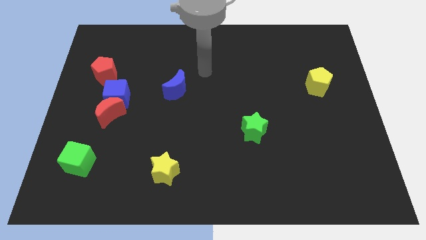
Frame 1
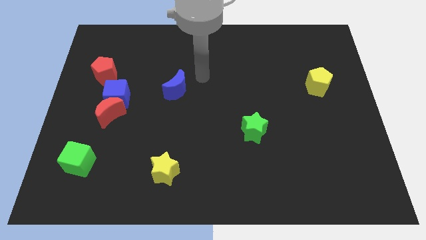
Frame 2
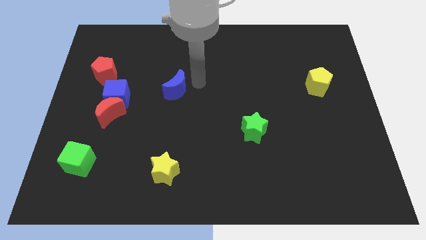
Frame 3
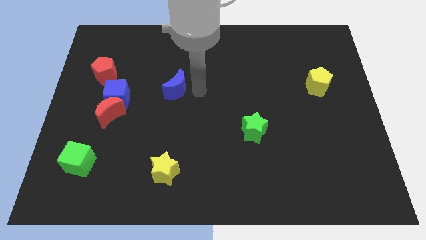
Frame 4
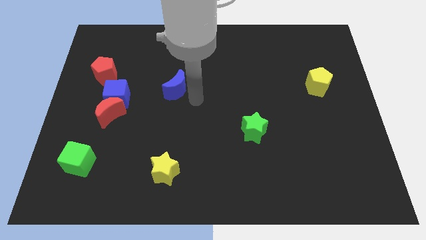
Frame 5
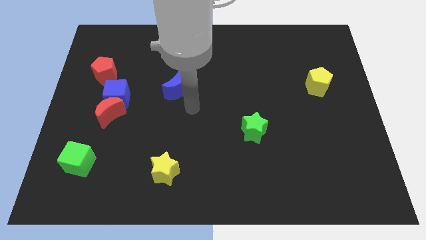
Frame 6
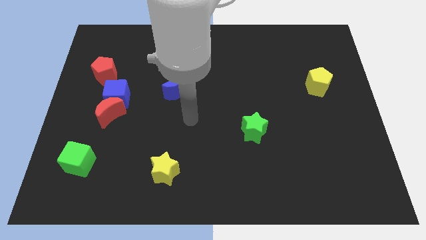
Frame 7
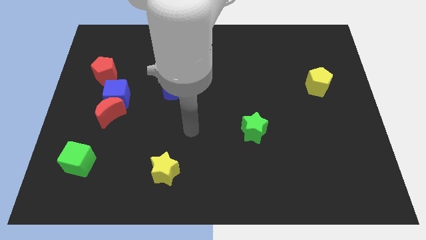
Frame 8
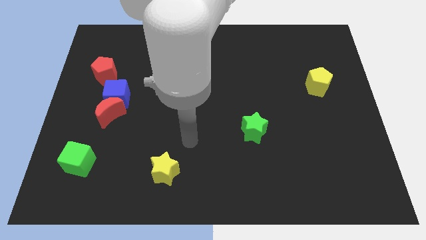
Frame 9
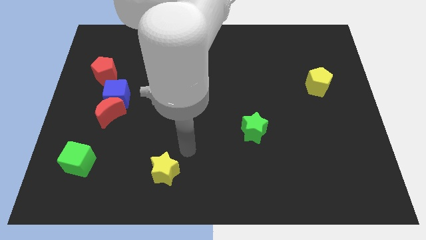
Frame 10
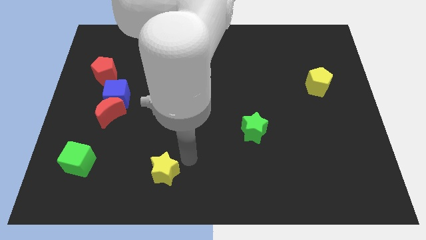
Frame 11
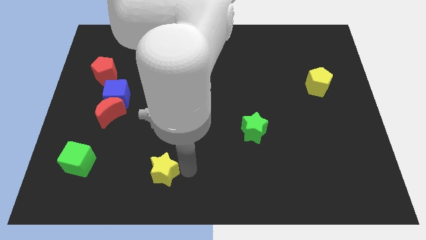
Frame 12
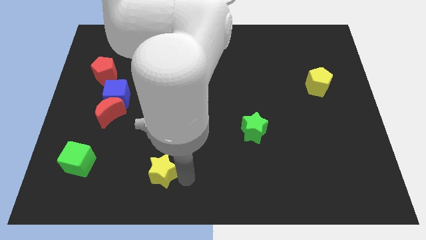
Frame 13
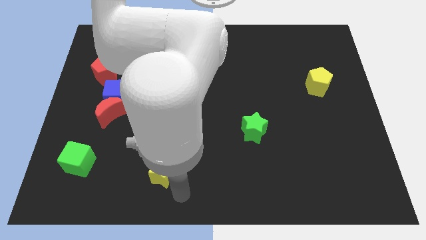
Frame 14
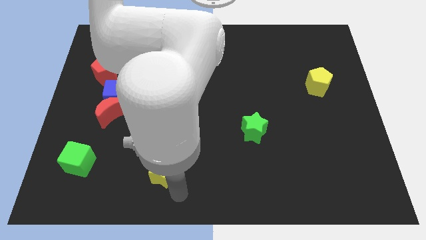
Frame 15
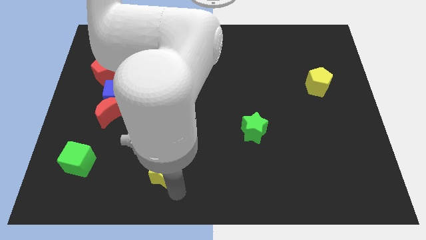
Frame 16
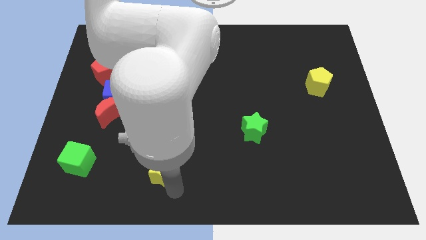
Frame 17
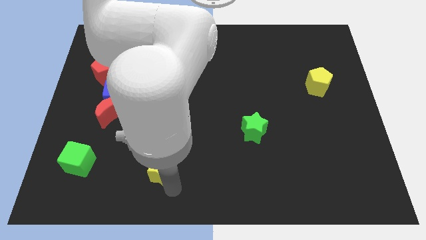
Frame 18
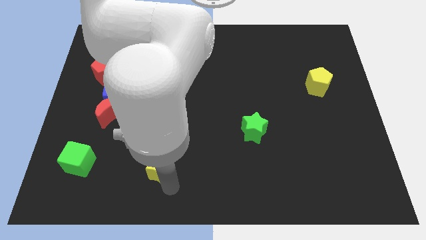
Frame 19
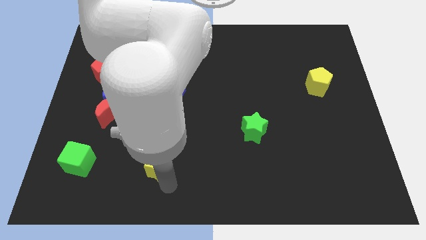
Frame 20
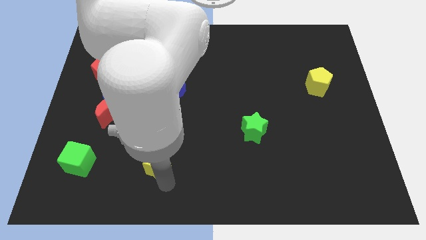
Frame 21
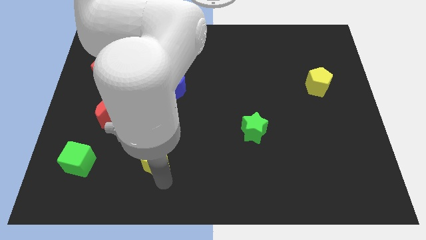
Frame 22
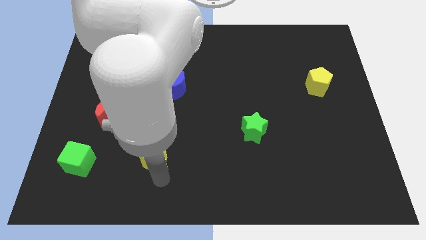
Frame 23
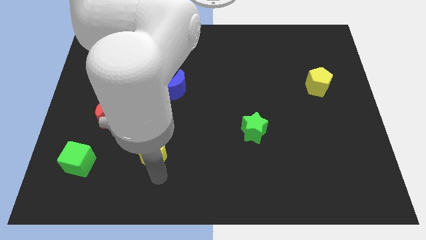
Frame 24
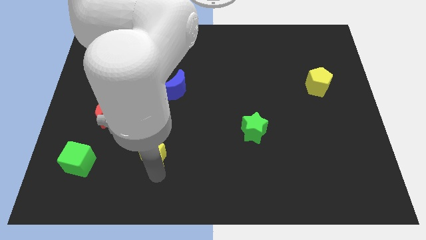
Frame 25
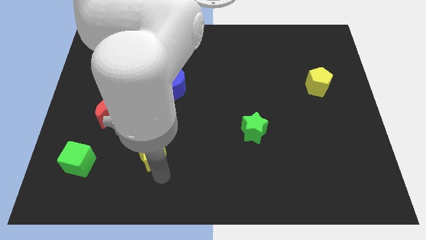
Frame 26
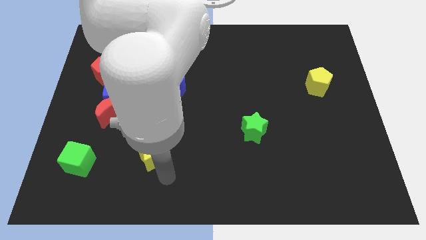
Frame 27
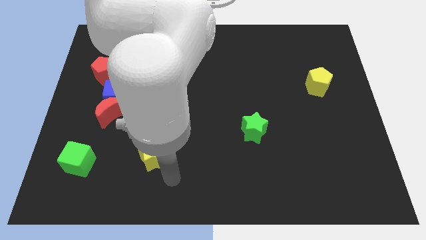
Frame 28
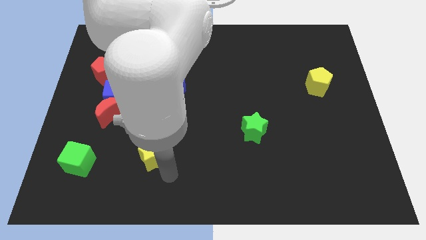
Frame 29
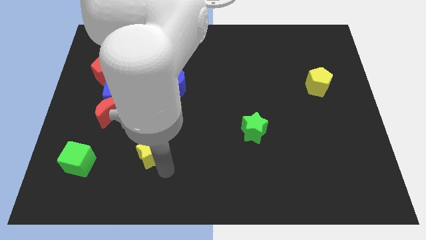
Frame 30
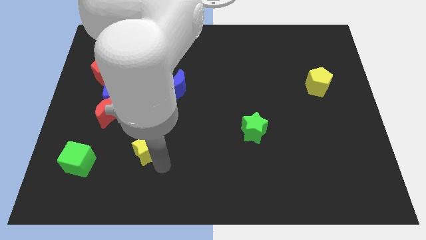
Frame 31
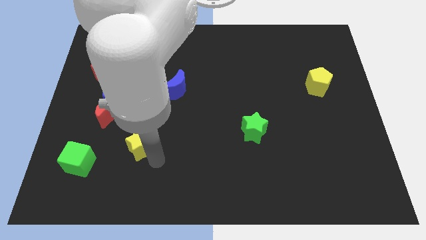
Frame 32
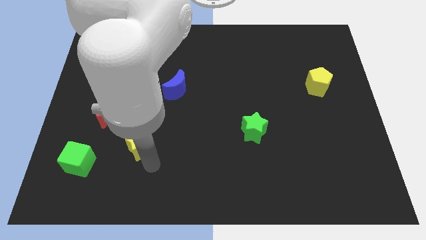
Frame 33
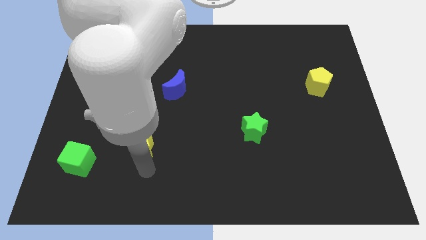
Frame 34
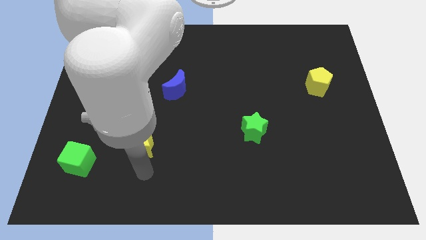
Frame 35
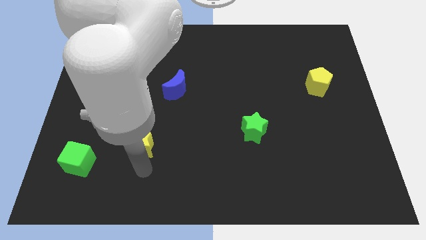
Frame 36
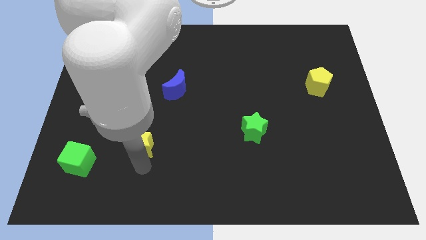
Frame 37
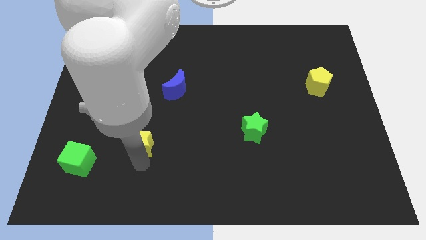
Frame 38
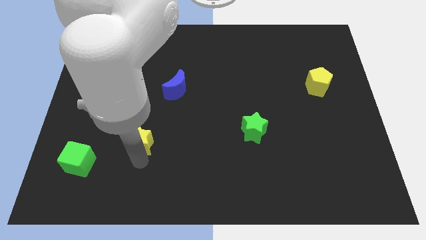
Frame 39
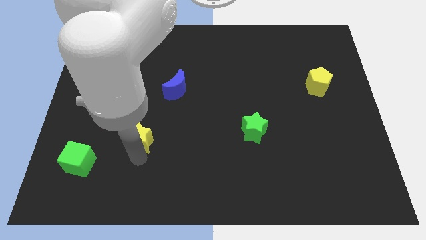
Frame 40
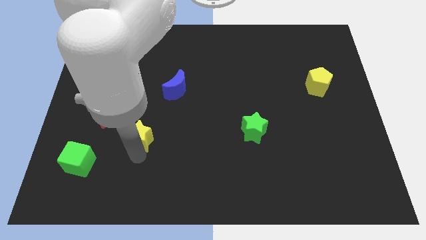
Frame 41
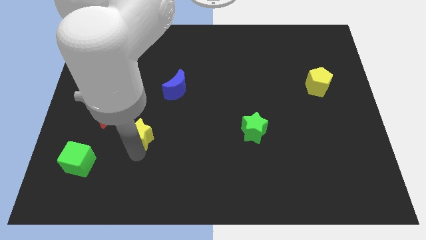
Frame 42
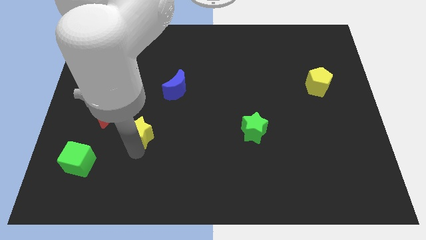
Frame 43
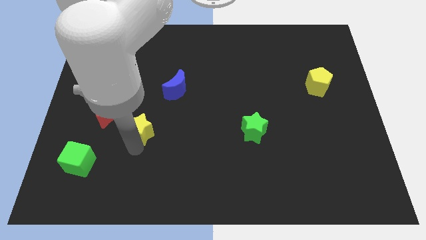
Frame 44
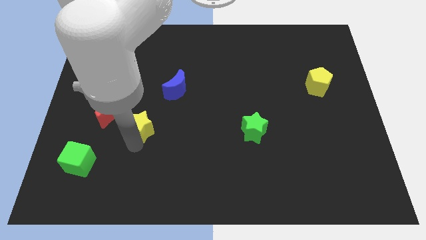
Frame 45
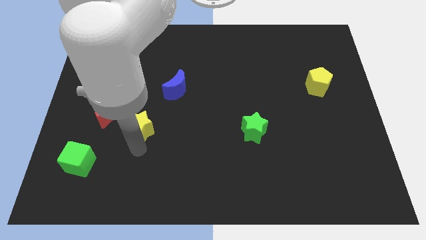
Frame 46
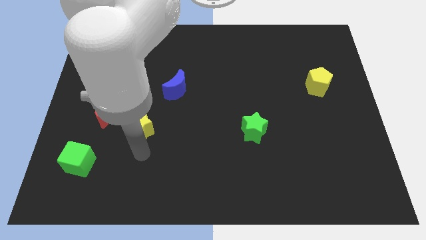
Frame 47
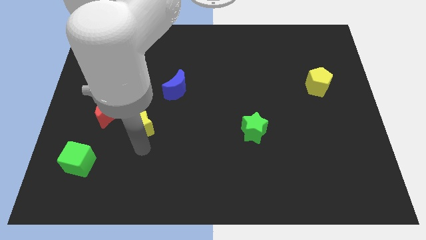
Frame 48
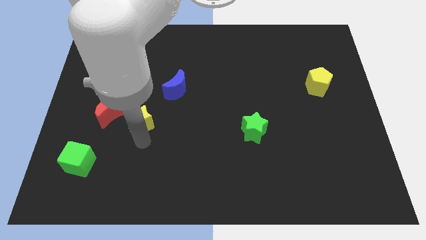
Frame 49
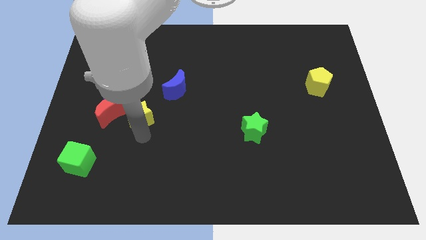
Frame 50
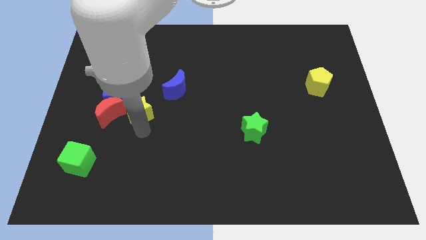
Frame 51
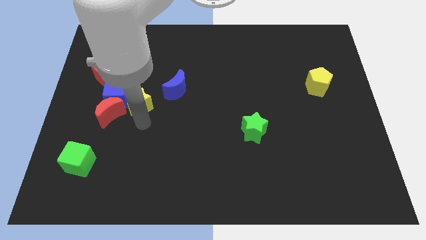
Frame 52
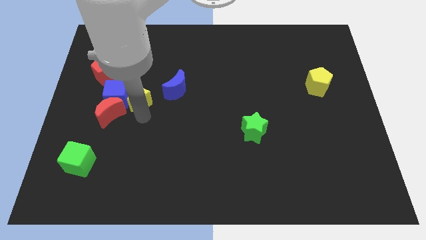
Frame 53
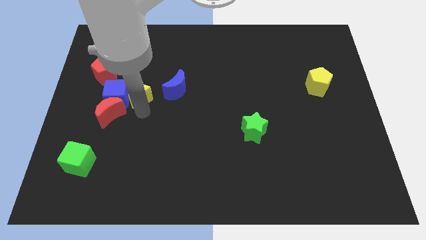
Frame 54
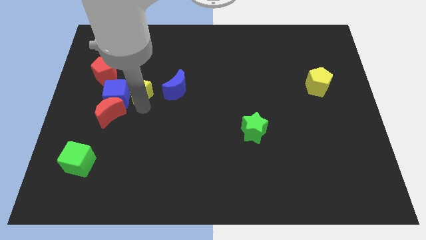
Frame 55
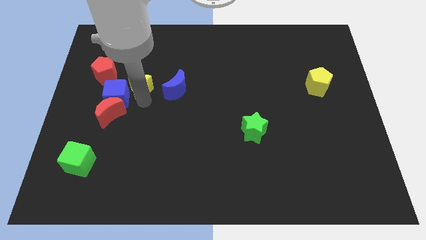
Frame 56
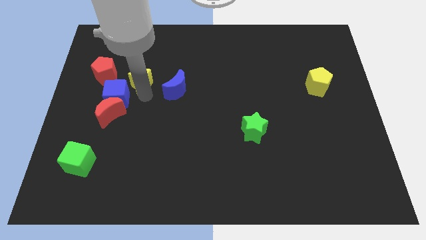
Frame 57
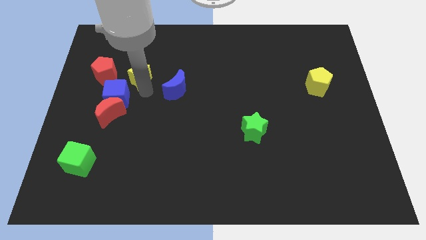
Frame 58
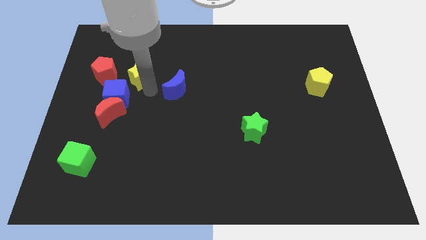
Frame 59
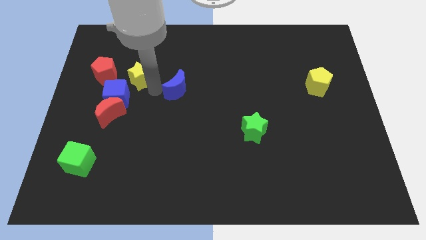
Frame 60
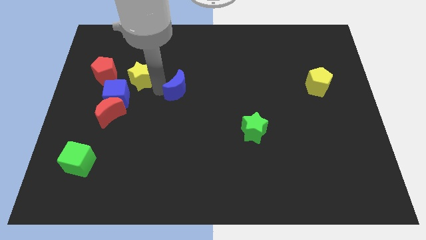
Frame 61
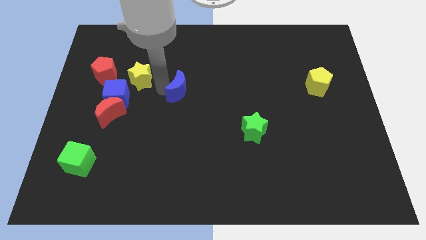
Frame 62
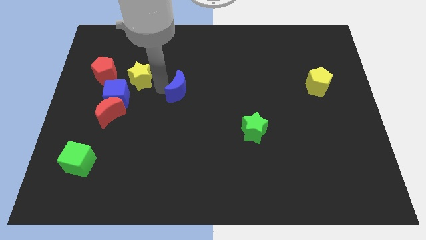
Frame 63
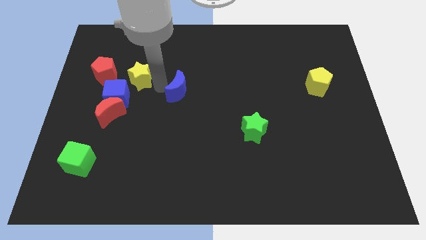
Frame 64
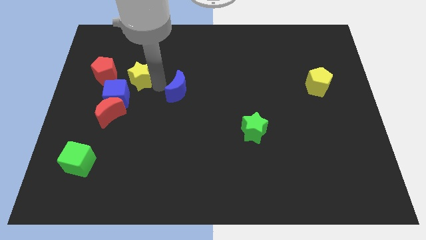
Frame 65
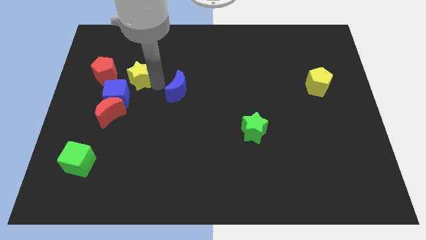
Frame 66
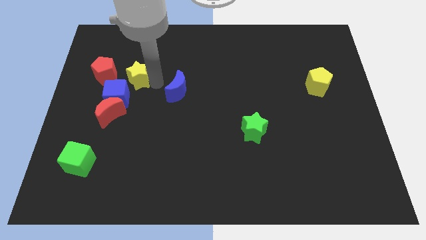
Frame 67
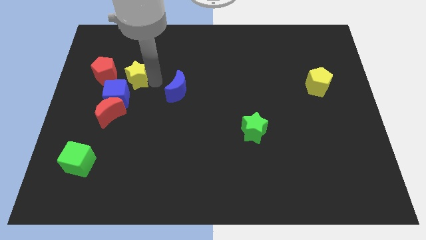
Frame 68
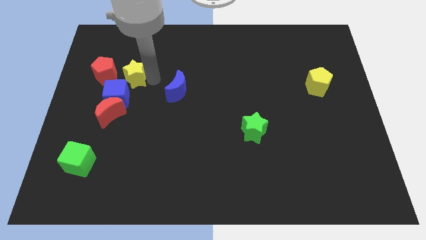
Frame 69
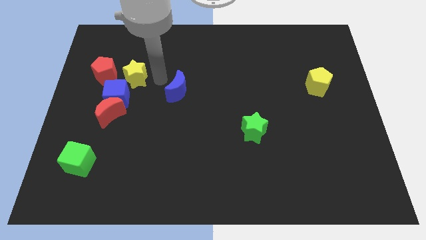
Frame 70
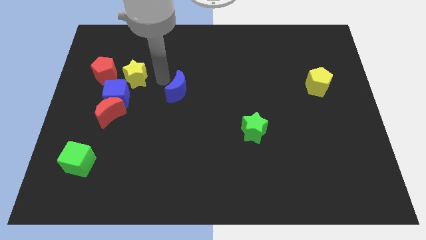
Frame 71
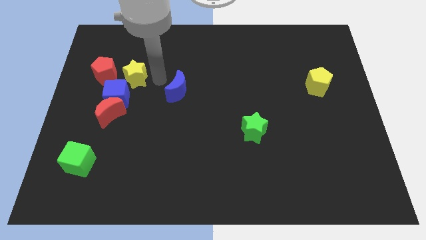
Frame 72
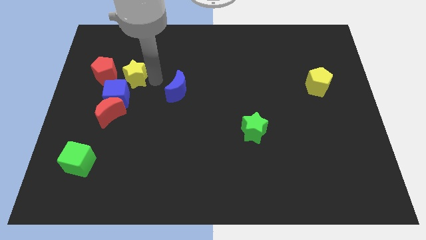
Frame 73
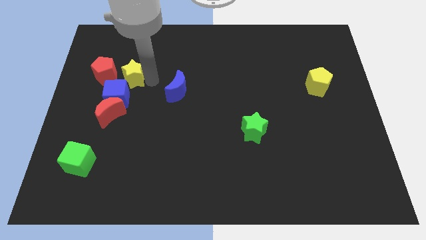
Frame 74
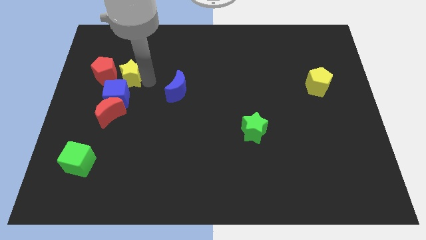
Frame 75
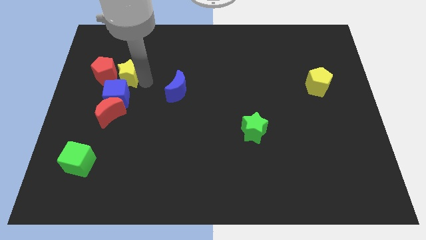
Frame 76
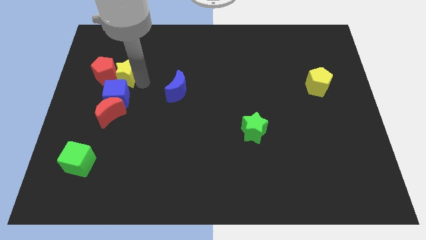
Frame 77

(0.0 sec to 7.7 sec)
push the yellow star towards the red pentagon
